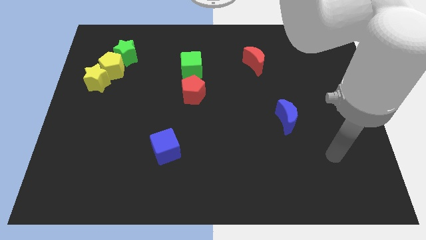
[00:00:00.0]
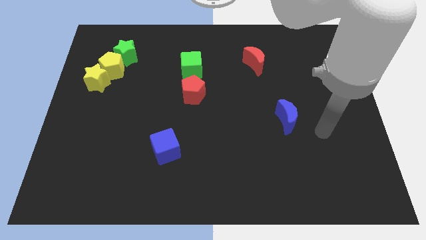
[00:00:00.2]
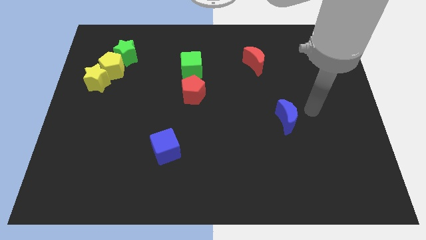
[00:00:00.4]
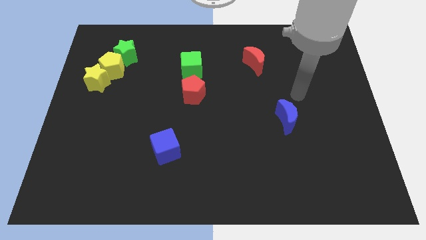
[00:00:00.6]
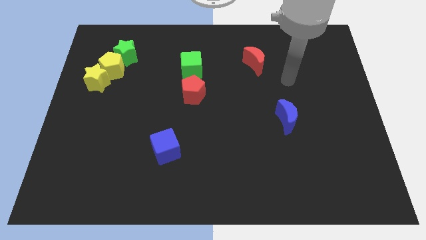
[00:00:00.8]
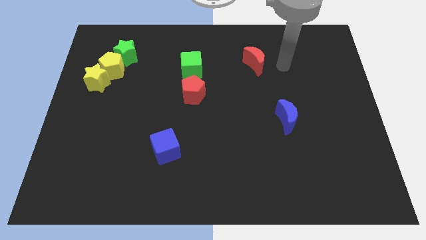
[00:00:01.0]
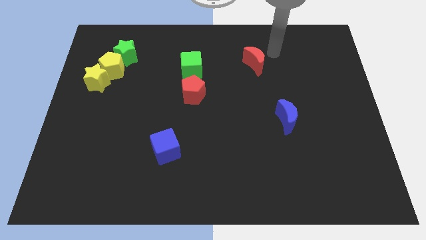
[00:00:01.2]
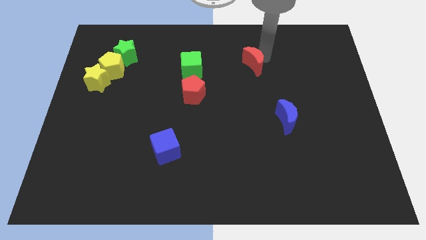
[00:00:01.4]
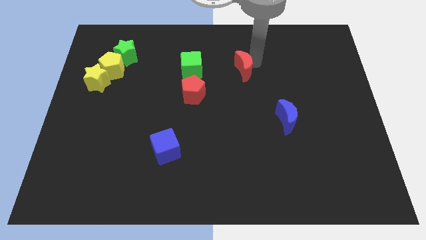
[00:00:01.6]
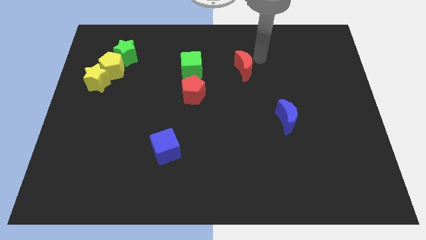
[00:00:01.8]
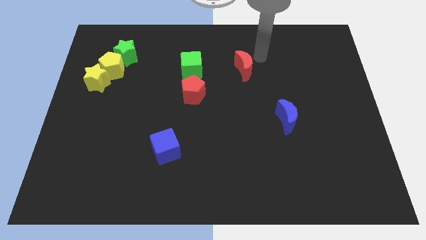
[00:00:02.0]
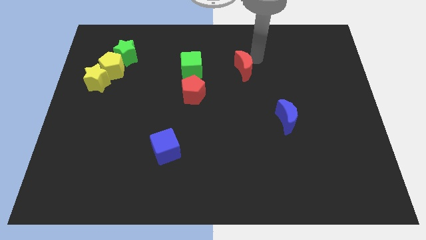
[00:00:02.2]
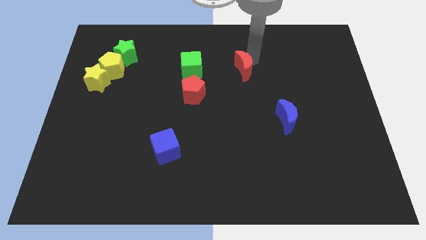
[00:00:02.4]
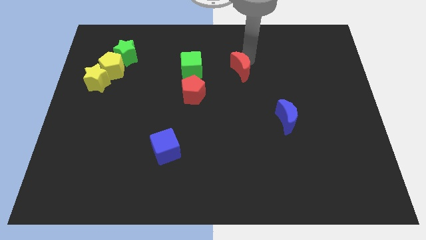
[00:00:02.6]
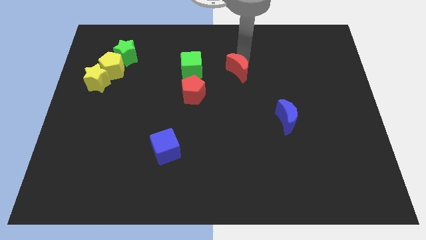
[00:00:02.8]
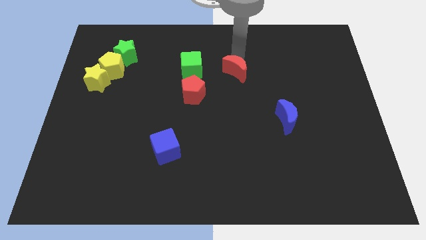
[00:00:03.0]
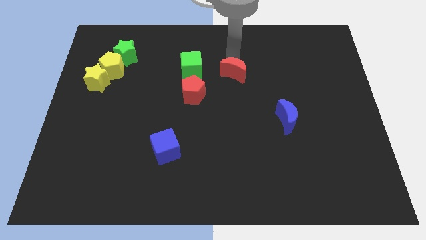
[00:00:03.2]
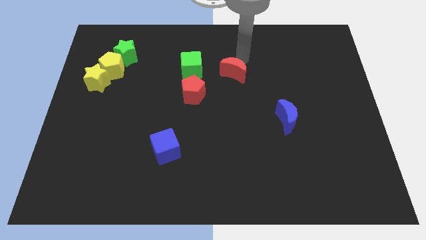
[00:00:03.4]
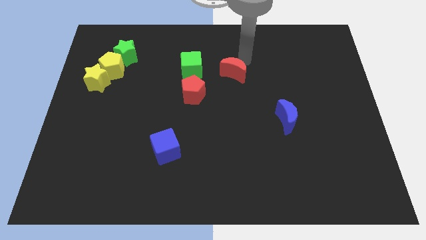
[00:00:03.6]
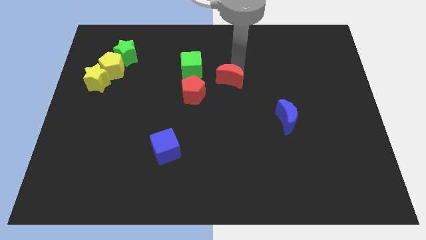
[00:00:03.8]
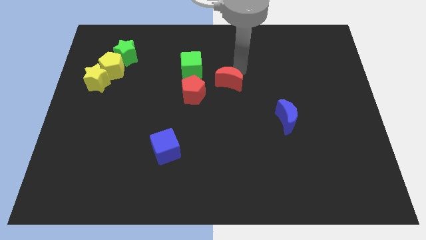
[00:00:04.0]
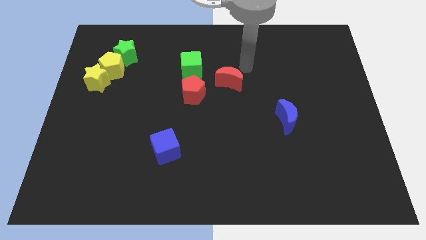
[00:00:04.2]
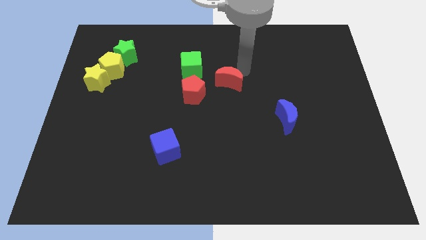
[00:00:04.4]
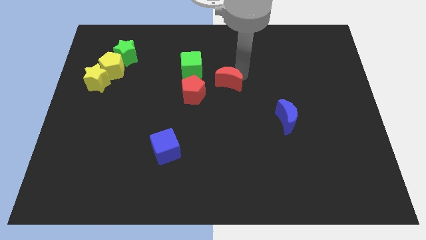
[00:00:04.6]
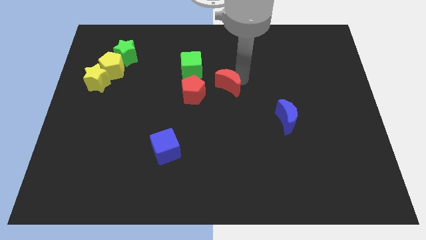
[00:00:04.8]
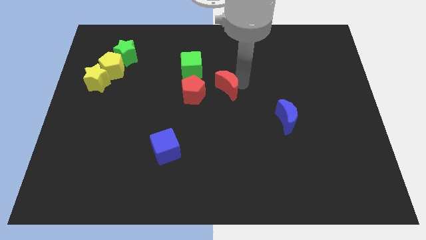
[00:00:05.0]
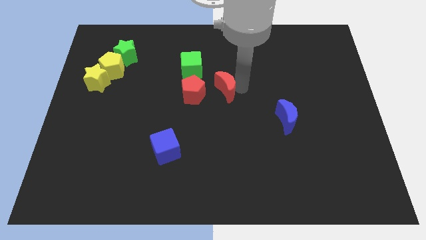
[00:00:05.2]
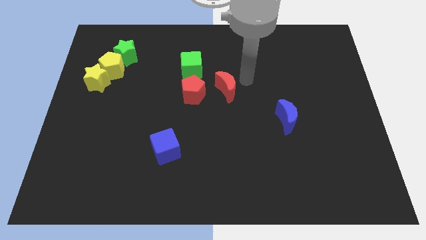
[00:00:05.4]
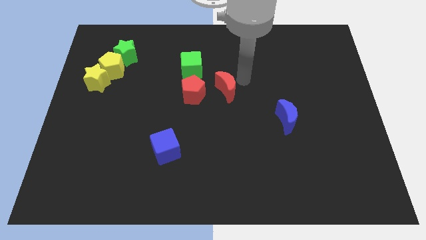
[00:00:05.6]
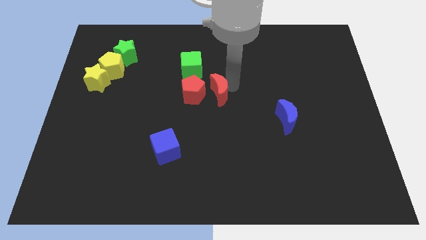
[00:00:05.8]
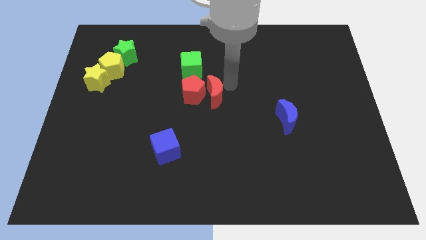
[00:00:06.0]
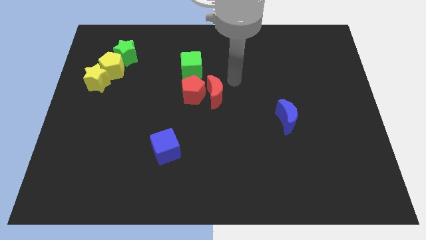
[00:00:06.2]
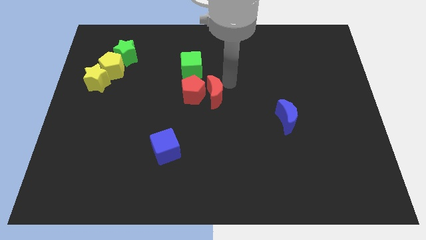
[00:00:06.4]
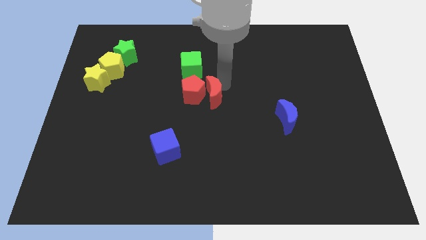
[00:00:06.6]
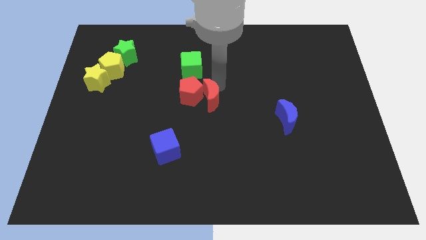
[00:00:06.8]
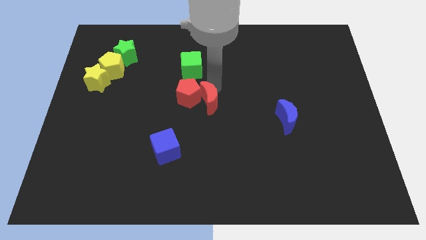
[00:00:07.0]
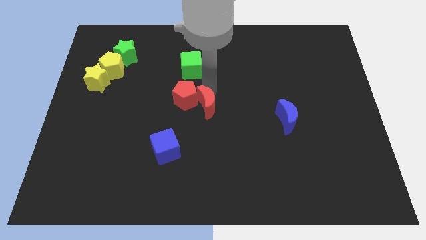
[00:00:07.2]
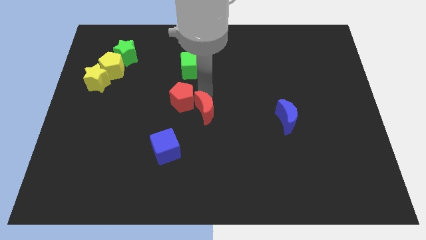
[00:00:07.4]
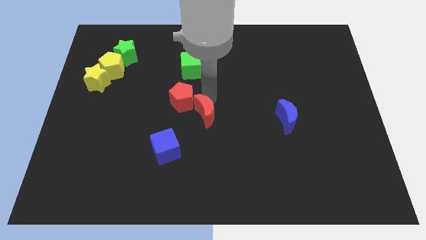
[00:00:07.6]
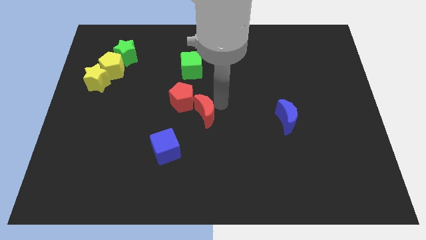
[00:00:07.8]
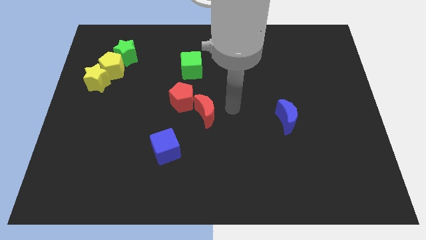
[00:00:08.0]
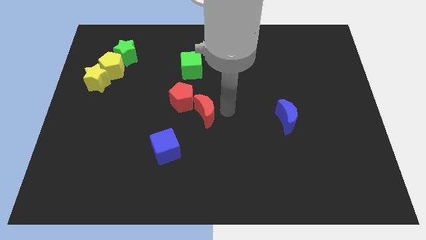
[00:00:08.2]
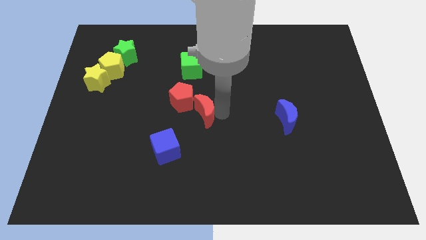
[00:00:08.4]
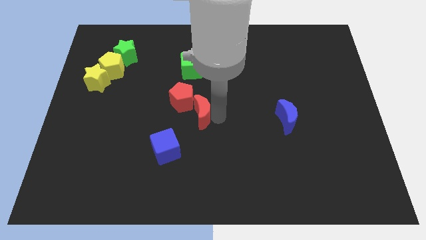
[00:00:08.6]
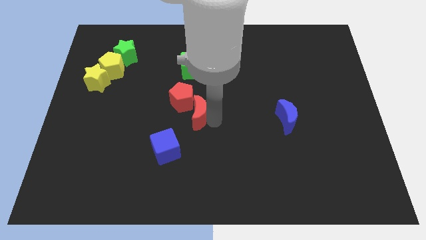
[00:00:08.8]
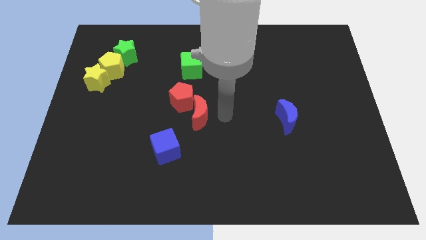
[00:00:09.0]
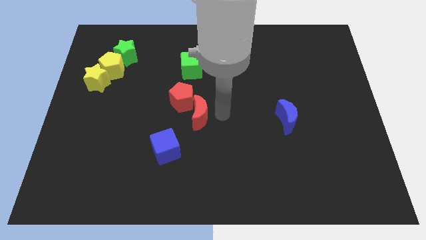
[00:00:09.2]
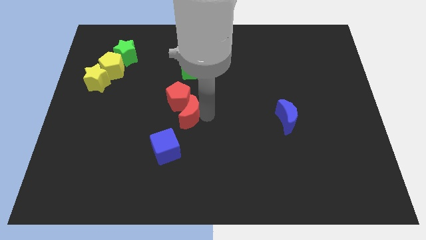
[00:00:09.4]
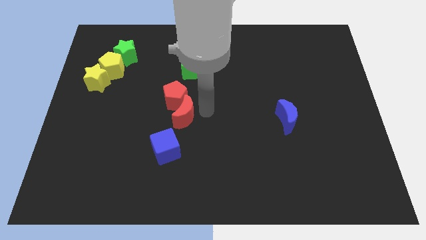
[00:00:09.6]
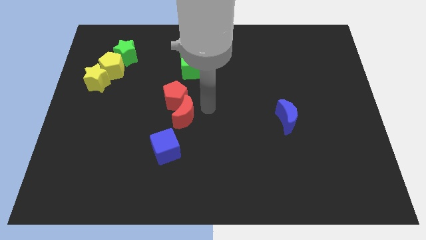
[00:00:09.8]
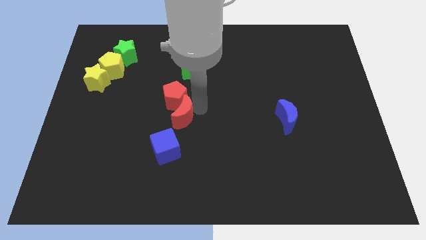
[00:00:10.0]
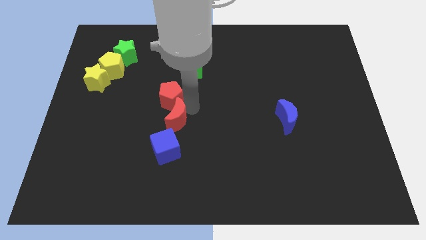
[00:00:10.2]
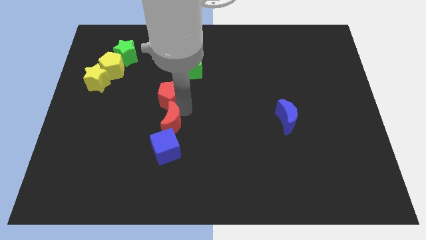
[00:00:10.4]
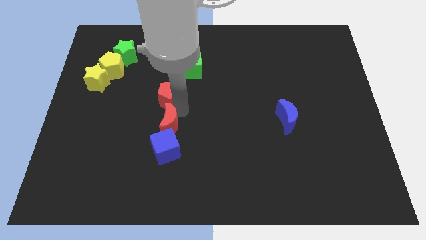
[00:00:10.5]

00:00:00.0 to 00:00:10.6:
push the red moon to the top left side of the blue cube

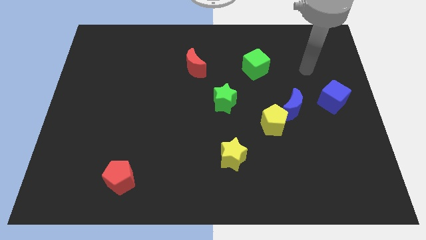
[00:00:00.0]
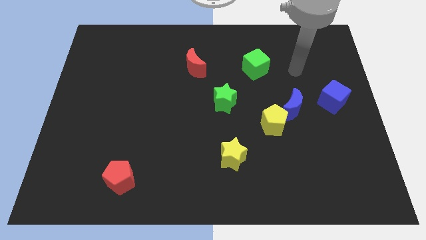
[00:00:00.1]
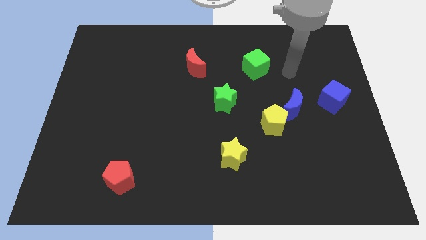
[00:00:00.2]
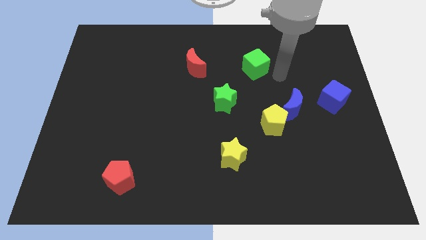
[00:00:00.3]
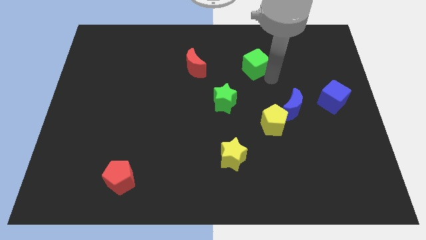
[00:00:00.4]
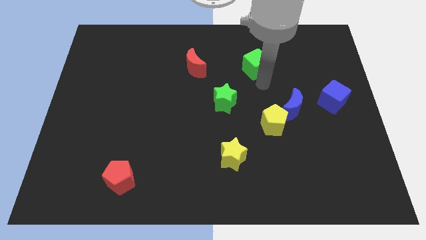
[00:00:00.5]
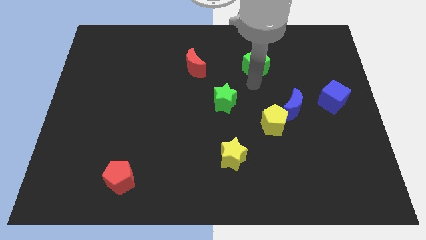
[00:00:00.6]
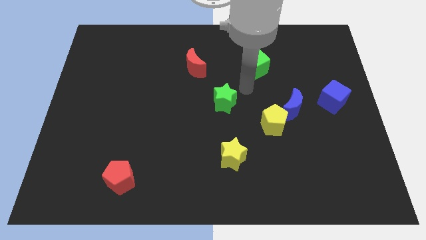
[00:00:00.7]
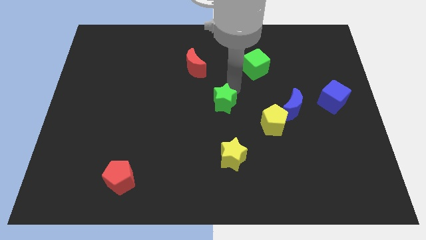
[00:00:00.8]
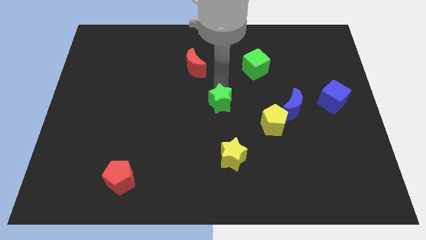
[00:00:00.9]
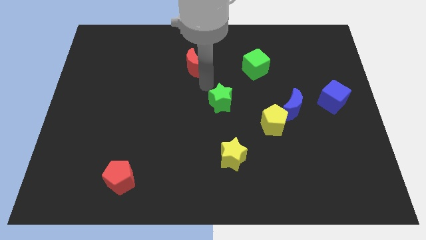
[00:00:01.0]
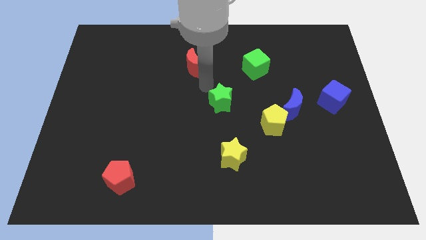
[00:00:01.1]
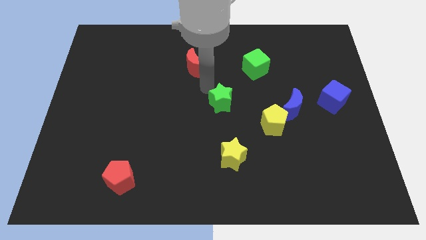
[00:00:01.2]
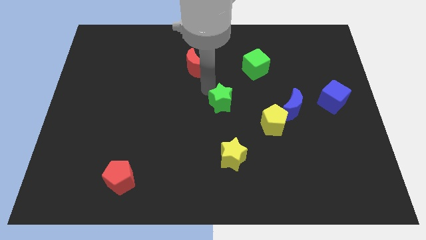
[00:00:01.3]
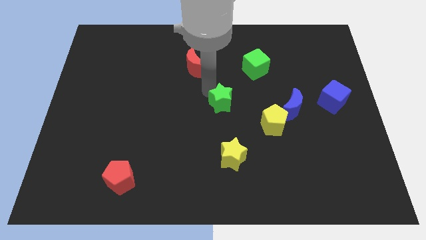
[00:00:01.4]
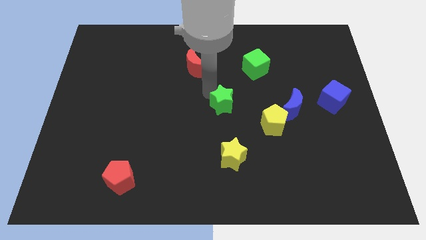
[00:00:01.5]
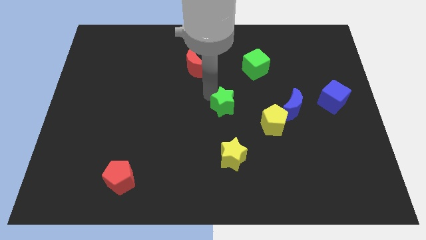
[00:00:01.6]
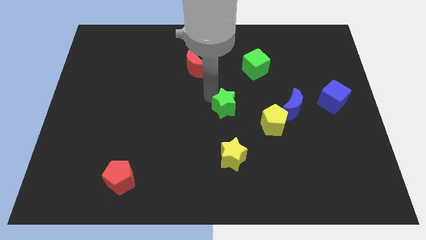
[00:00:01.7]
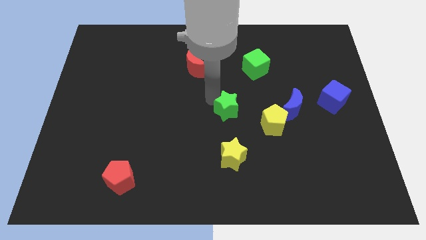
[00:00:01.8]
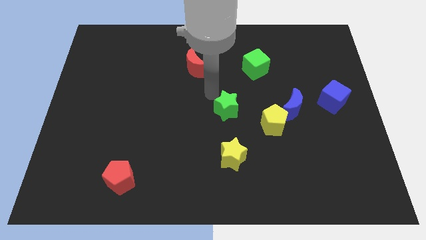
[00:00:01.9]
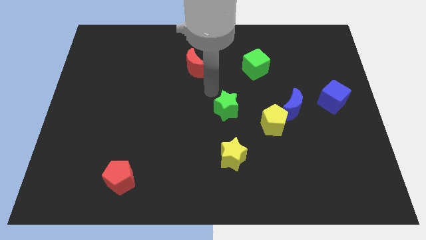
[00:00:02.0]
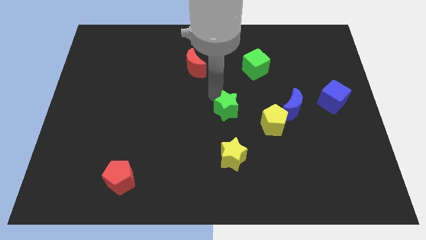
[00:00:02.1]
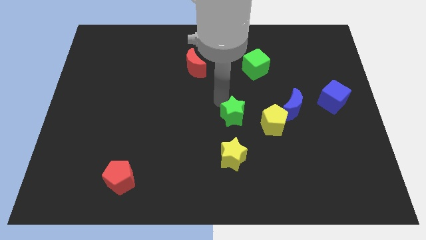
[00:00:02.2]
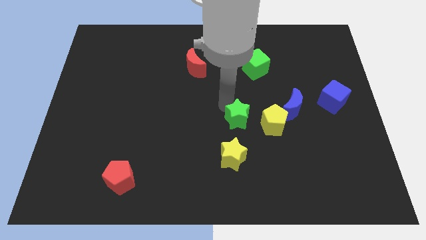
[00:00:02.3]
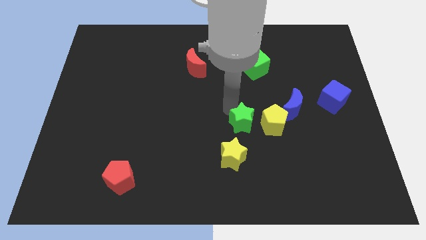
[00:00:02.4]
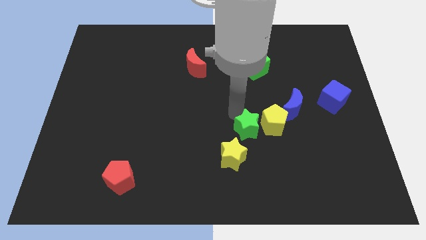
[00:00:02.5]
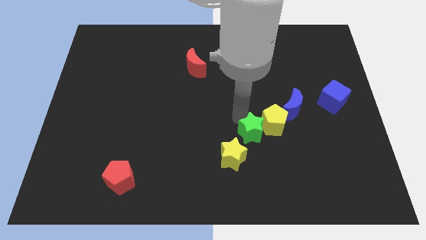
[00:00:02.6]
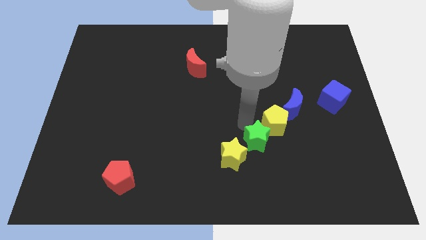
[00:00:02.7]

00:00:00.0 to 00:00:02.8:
push the green star just right of the yellow star
